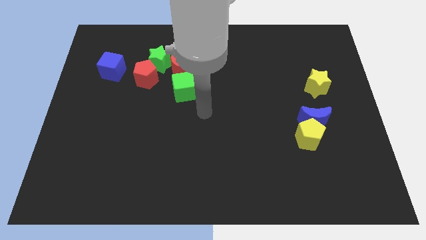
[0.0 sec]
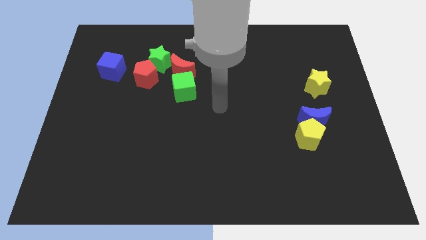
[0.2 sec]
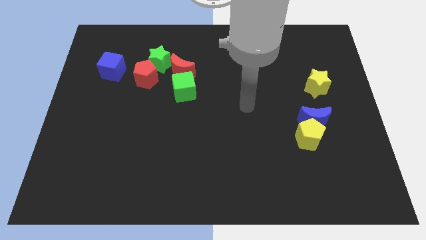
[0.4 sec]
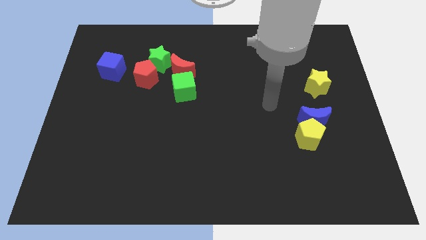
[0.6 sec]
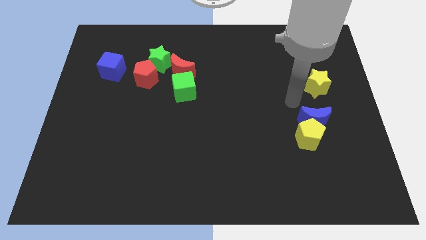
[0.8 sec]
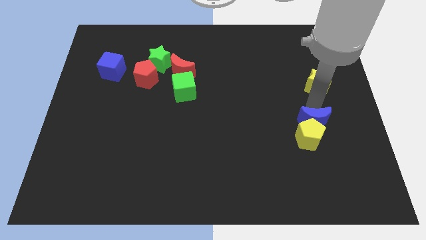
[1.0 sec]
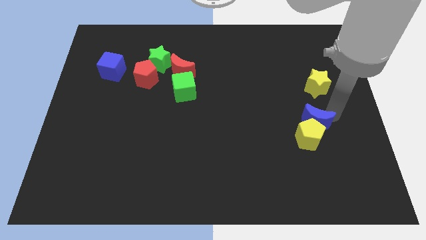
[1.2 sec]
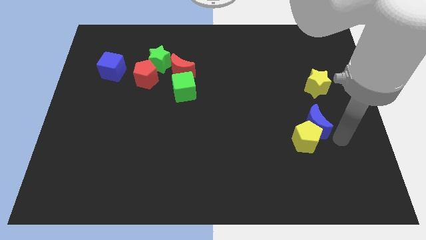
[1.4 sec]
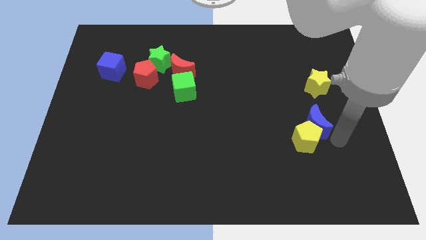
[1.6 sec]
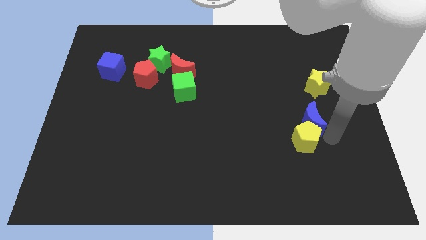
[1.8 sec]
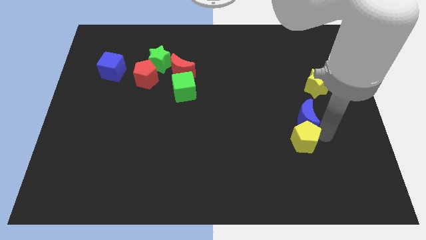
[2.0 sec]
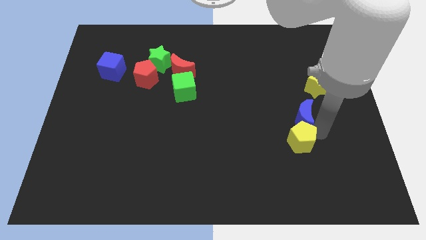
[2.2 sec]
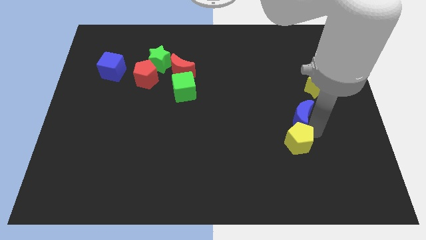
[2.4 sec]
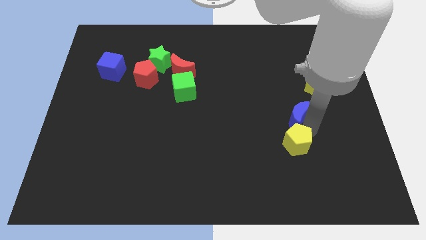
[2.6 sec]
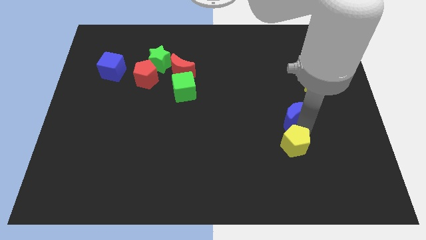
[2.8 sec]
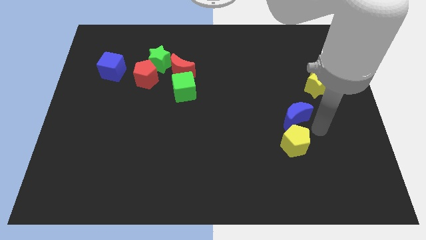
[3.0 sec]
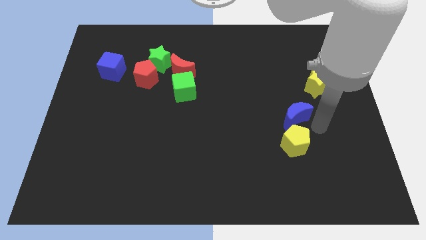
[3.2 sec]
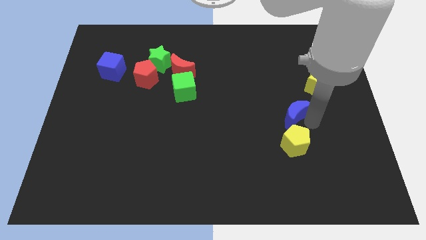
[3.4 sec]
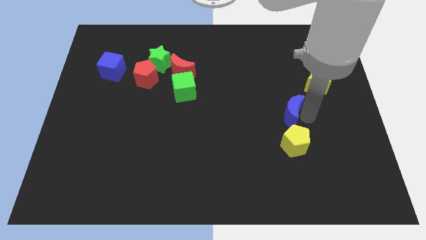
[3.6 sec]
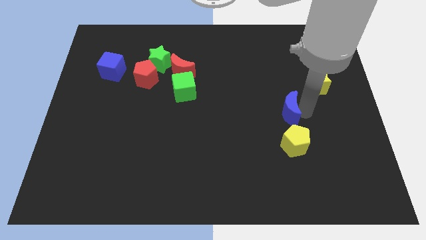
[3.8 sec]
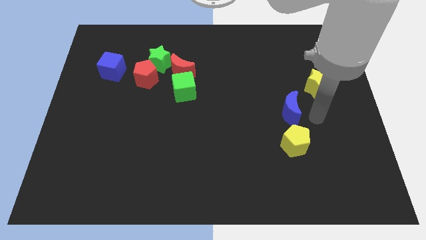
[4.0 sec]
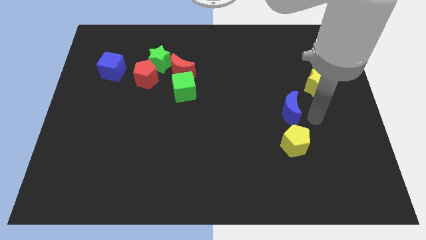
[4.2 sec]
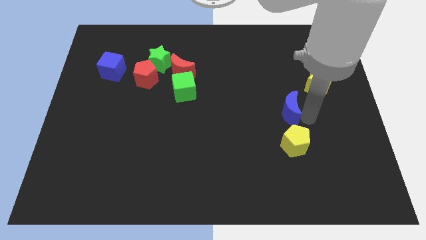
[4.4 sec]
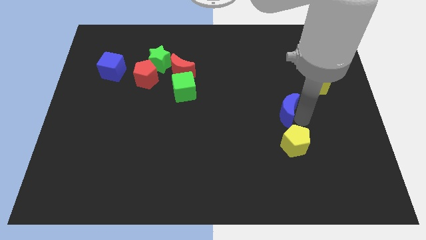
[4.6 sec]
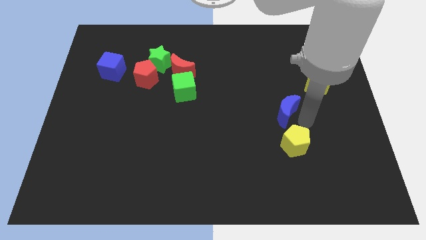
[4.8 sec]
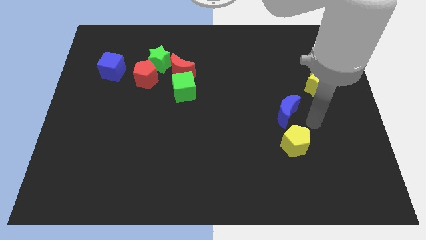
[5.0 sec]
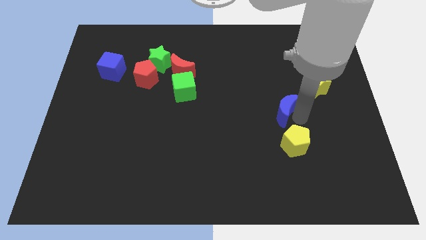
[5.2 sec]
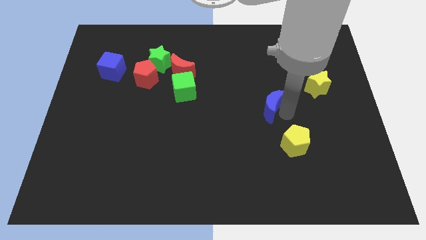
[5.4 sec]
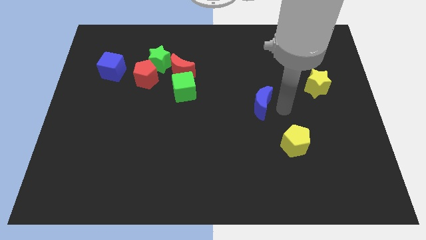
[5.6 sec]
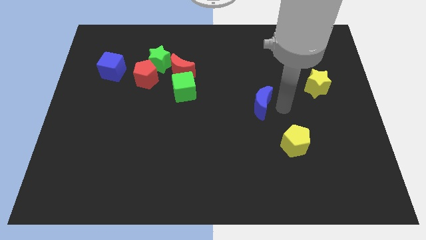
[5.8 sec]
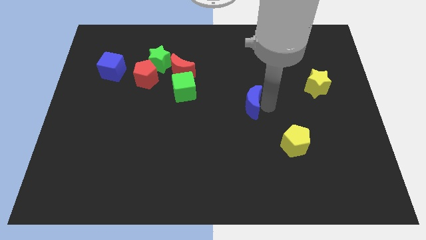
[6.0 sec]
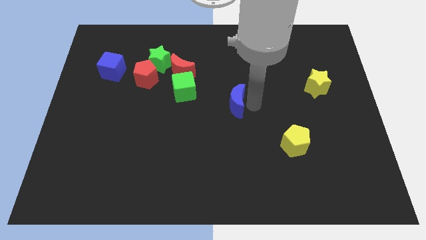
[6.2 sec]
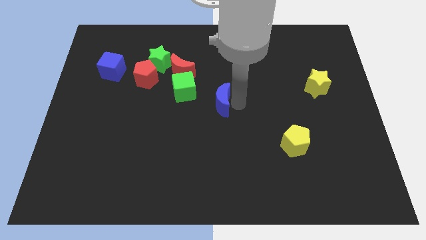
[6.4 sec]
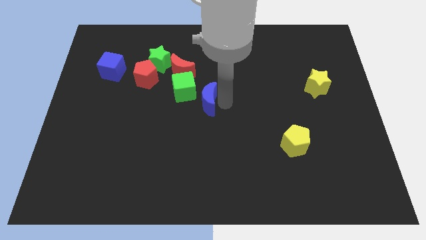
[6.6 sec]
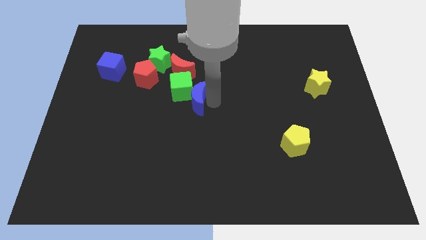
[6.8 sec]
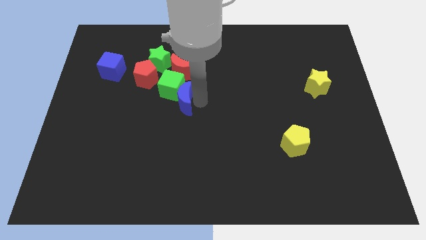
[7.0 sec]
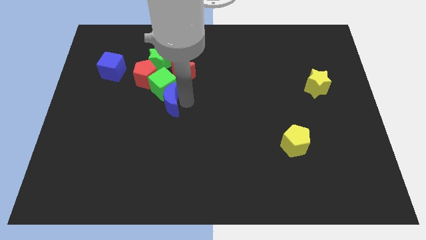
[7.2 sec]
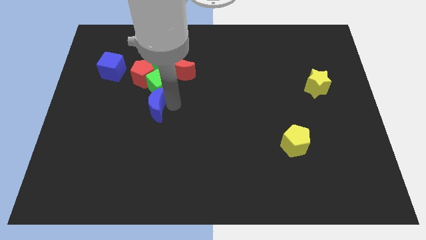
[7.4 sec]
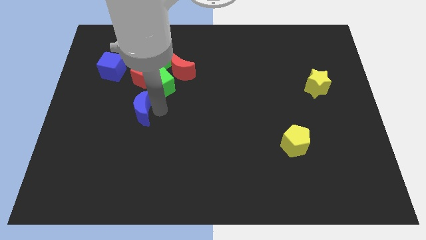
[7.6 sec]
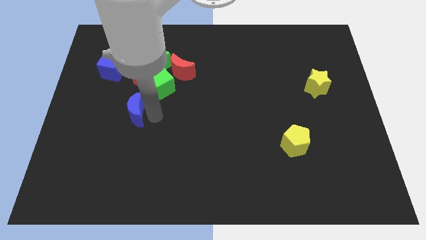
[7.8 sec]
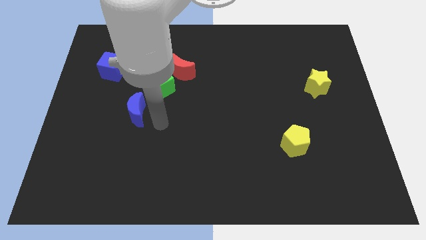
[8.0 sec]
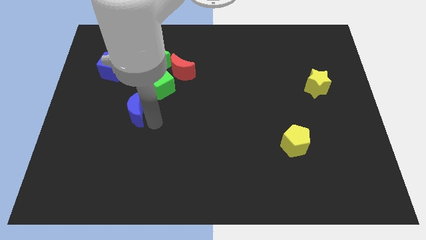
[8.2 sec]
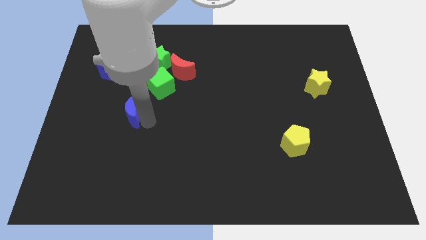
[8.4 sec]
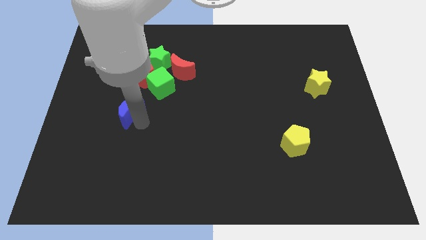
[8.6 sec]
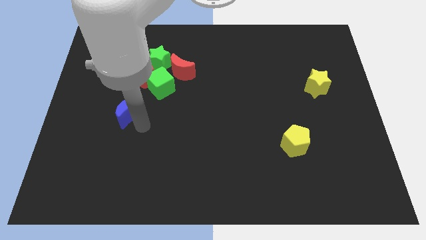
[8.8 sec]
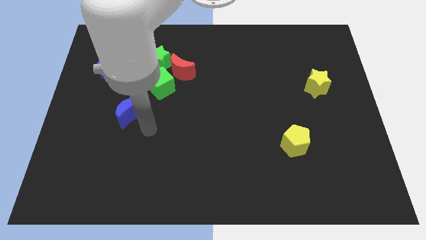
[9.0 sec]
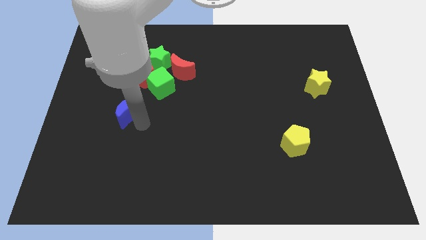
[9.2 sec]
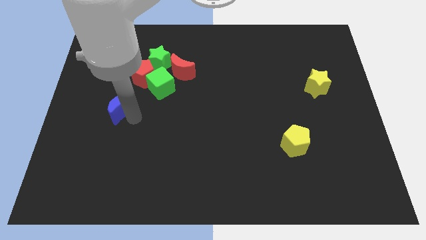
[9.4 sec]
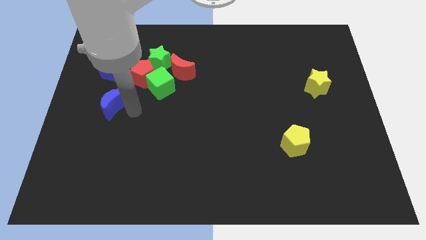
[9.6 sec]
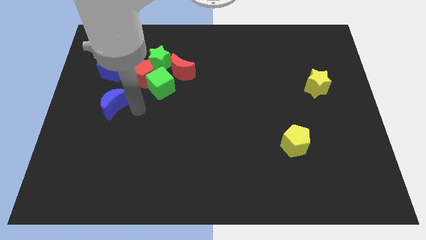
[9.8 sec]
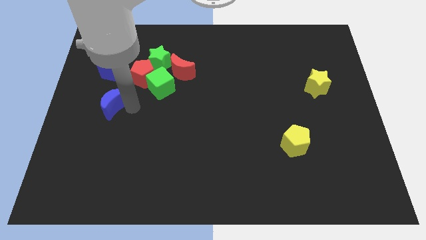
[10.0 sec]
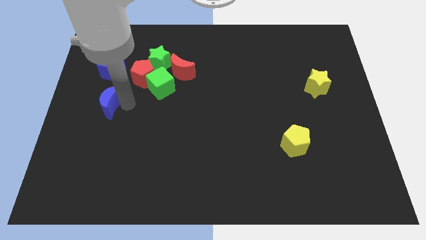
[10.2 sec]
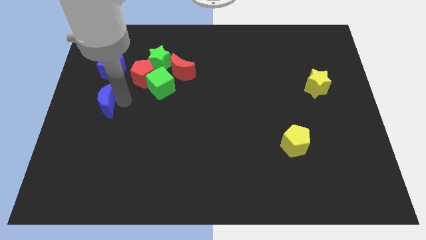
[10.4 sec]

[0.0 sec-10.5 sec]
slide the blue moon to the left side

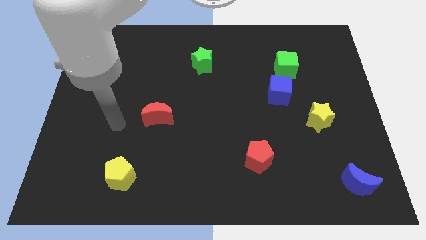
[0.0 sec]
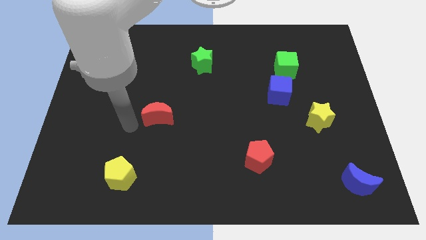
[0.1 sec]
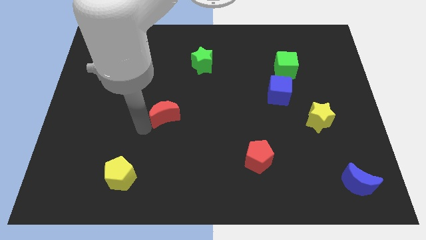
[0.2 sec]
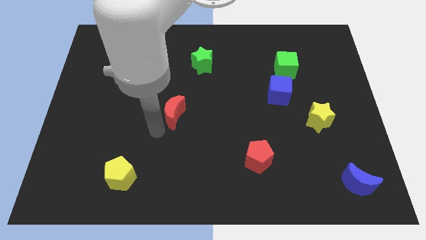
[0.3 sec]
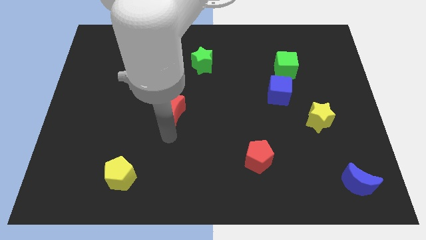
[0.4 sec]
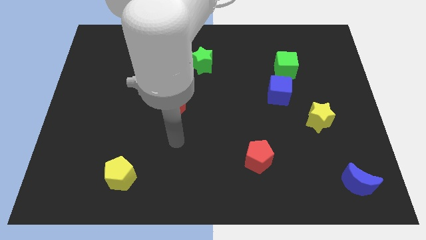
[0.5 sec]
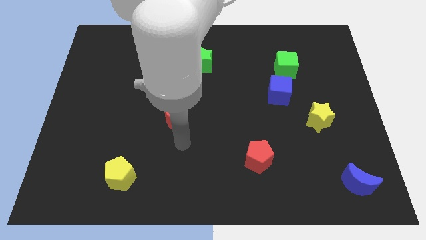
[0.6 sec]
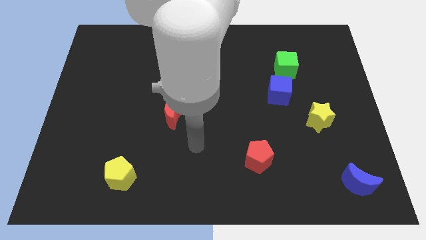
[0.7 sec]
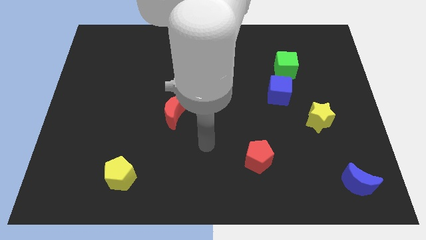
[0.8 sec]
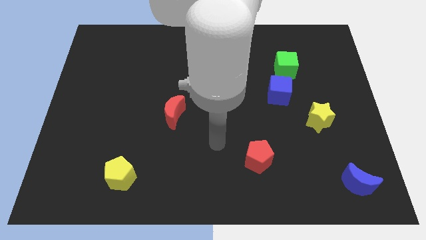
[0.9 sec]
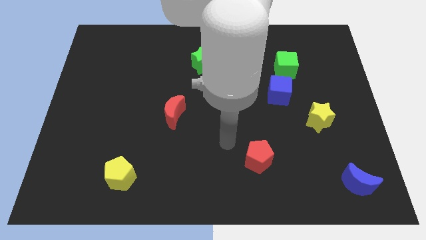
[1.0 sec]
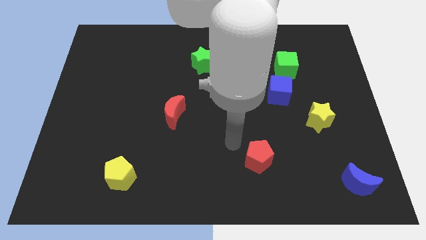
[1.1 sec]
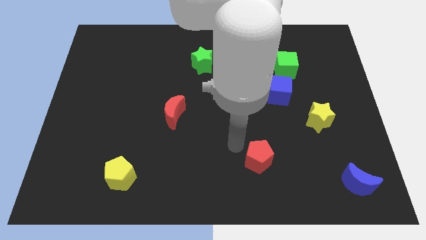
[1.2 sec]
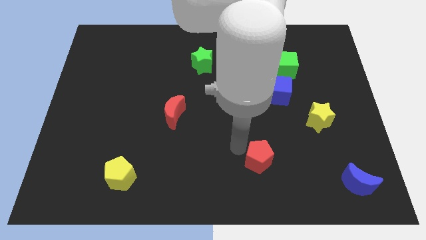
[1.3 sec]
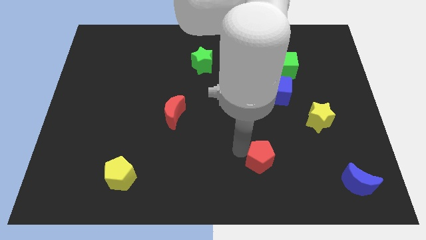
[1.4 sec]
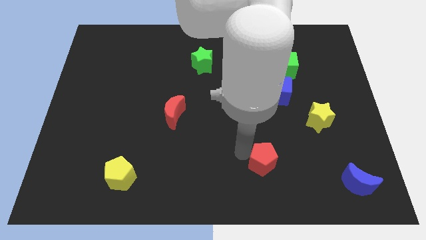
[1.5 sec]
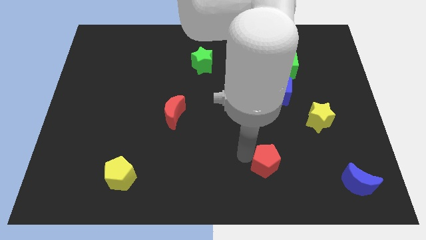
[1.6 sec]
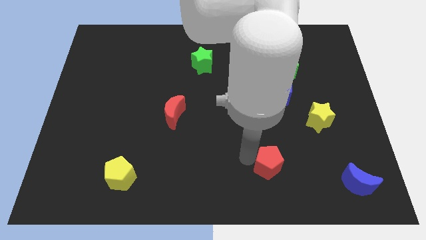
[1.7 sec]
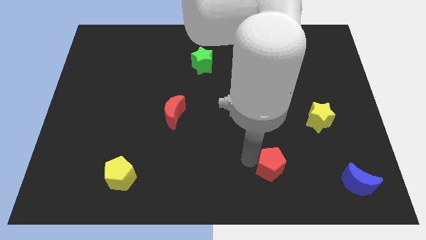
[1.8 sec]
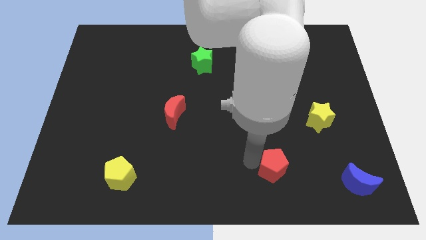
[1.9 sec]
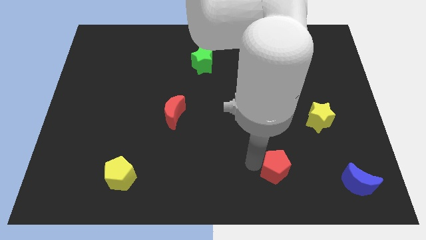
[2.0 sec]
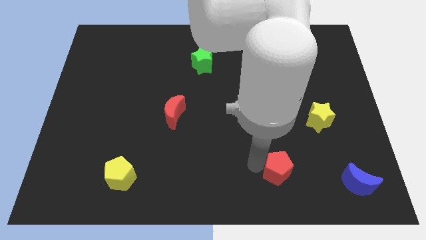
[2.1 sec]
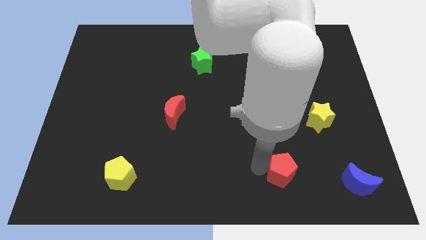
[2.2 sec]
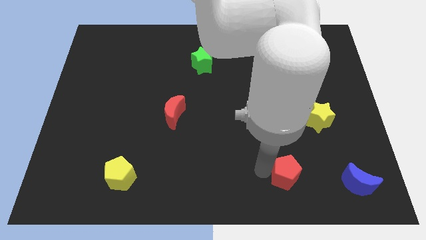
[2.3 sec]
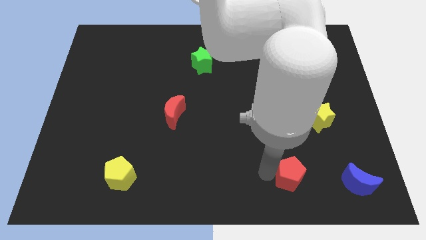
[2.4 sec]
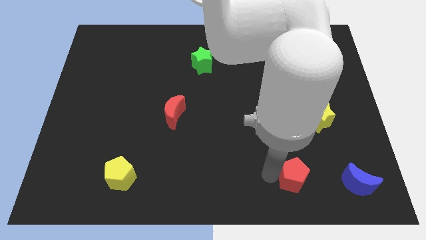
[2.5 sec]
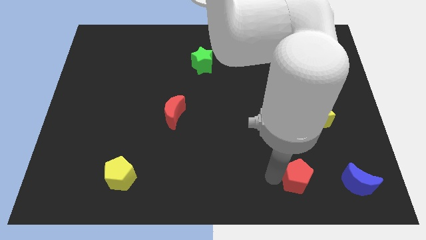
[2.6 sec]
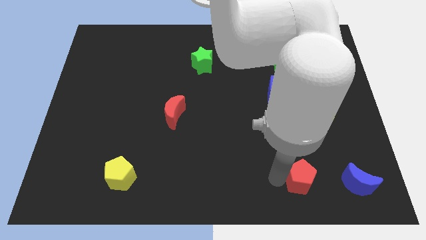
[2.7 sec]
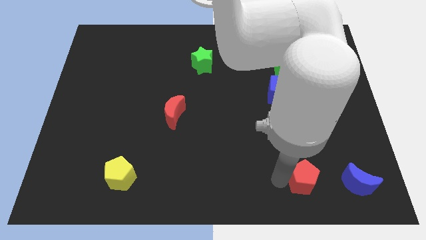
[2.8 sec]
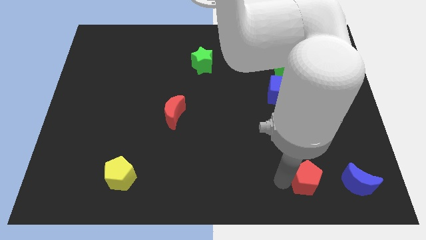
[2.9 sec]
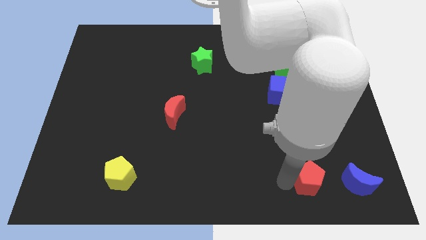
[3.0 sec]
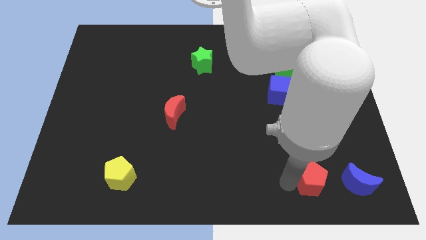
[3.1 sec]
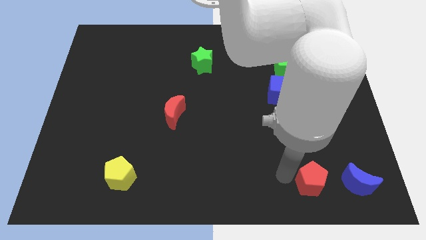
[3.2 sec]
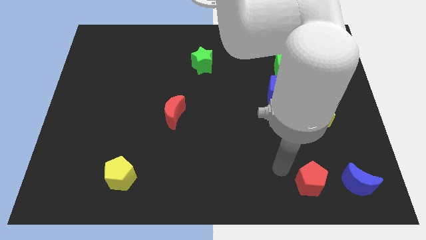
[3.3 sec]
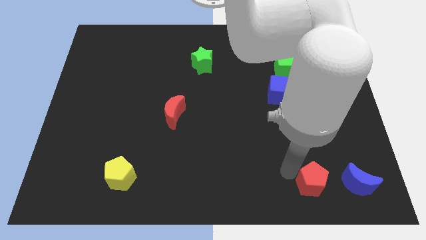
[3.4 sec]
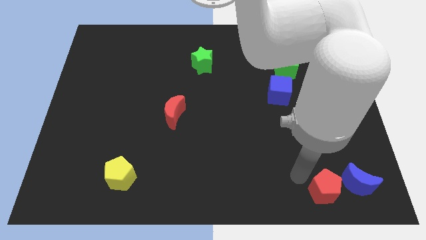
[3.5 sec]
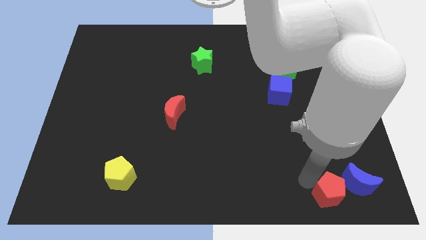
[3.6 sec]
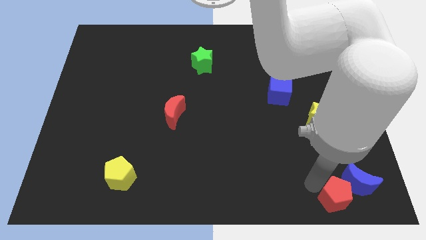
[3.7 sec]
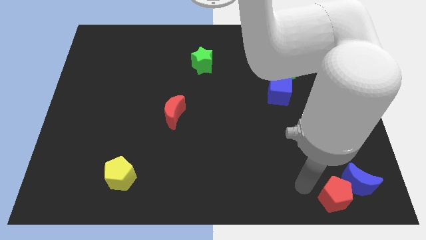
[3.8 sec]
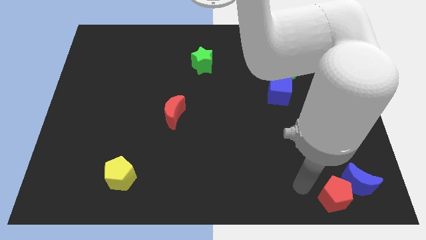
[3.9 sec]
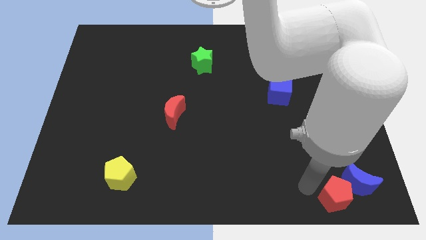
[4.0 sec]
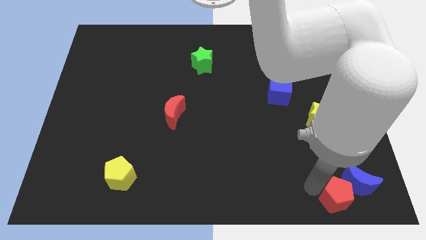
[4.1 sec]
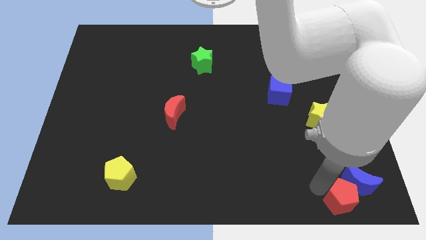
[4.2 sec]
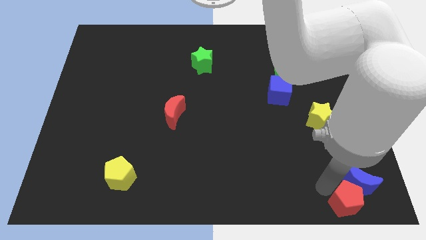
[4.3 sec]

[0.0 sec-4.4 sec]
push the red pentagon to the bottom right of the board
